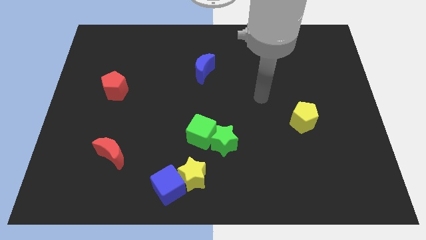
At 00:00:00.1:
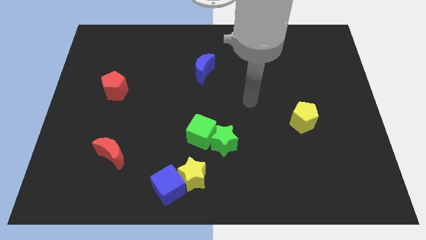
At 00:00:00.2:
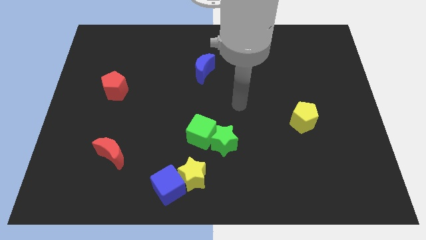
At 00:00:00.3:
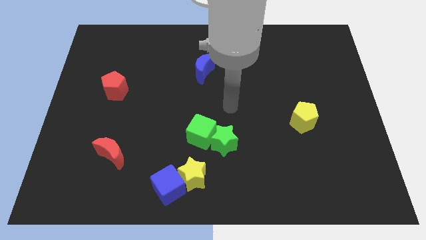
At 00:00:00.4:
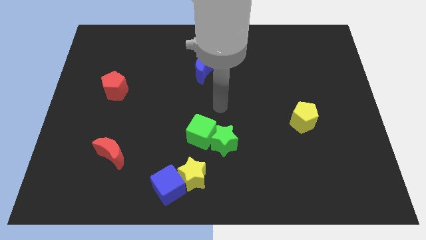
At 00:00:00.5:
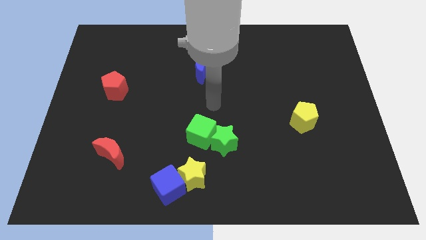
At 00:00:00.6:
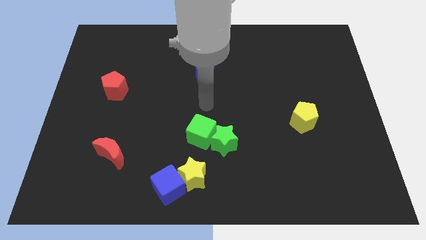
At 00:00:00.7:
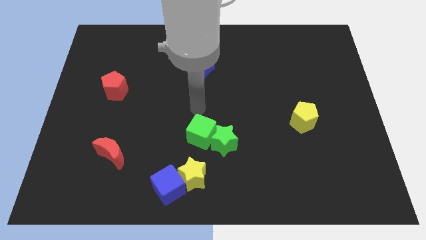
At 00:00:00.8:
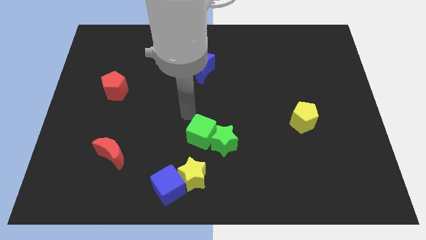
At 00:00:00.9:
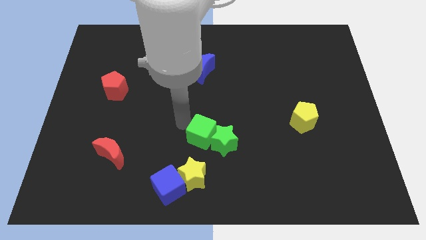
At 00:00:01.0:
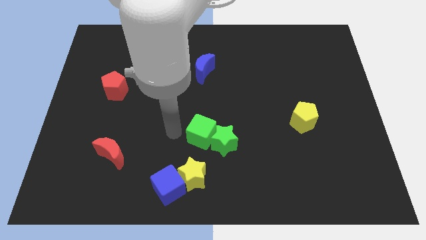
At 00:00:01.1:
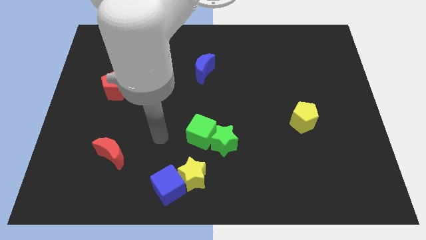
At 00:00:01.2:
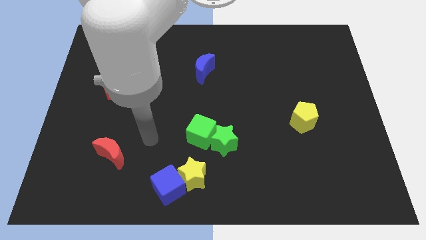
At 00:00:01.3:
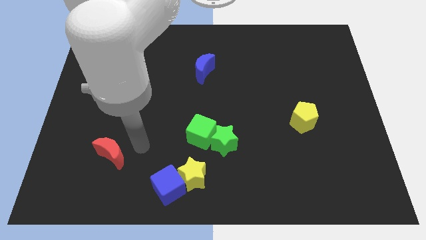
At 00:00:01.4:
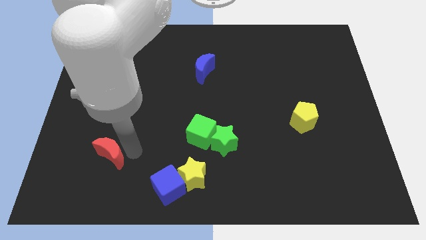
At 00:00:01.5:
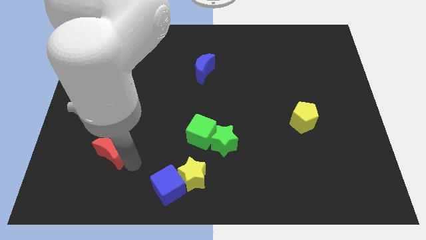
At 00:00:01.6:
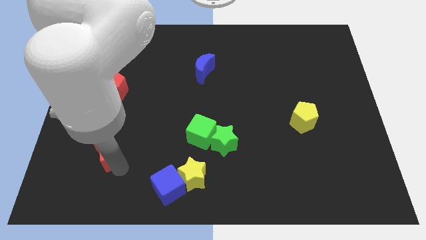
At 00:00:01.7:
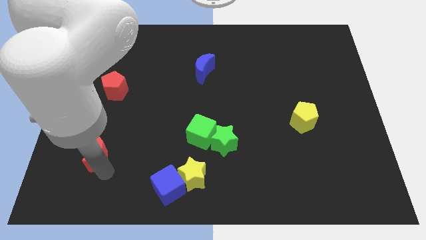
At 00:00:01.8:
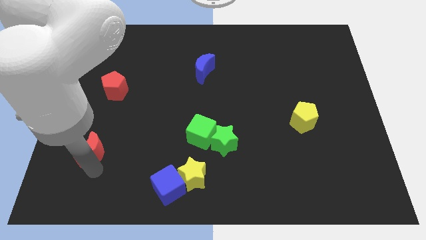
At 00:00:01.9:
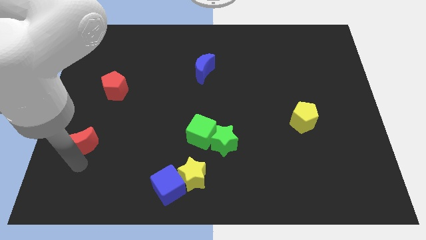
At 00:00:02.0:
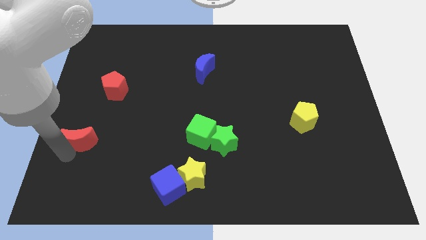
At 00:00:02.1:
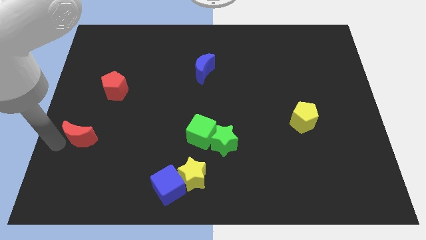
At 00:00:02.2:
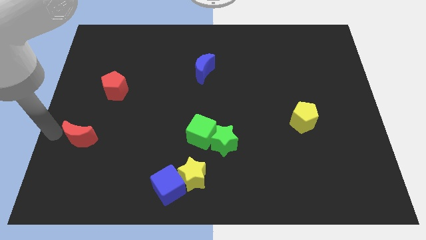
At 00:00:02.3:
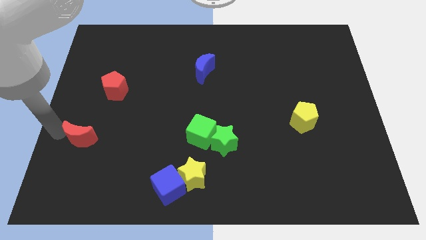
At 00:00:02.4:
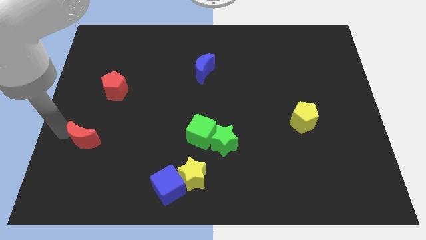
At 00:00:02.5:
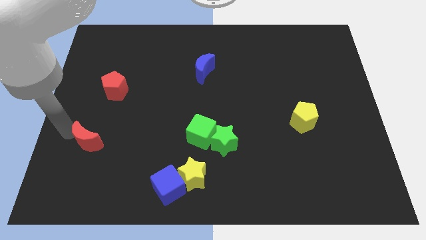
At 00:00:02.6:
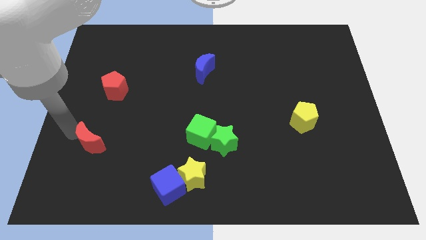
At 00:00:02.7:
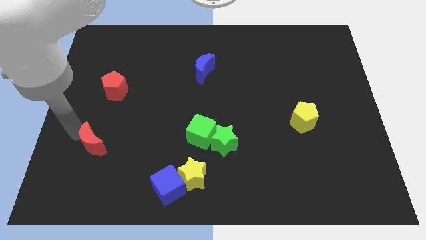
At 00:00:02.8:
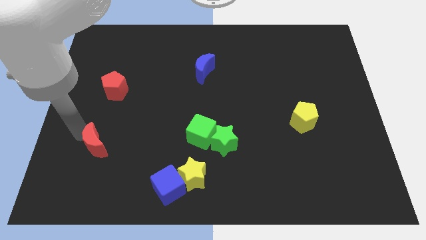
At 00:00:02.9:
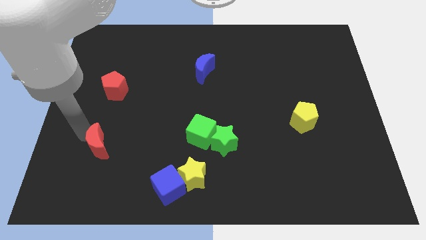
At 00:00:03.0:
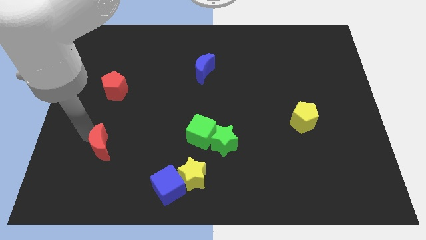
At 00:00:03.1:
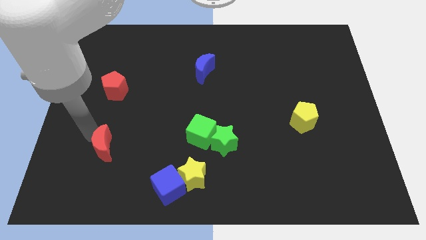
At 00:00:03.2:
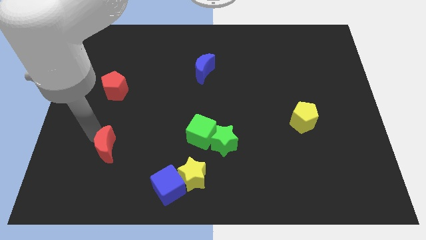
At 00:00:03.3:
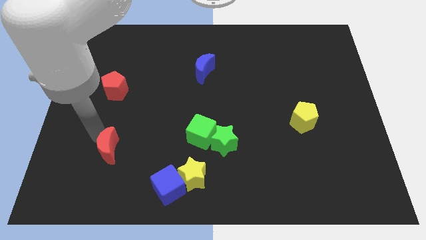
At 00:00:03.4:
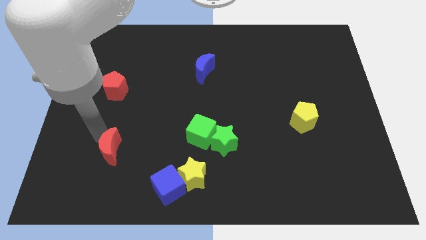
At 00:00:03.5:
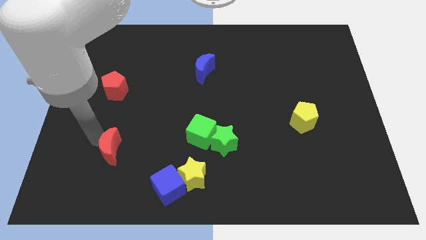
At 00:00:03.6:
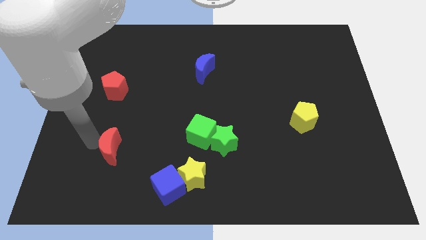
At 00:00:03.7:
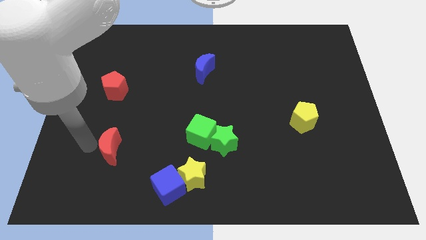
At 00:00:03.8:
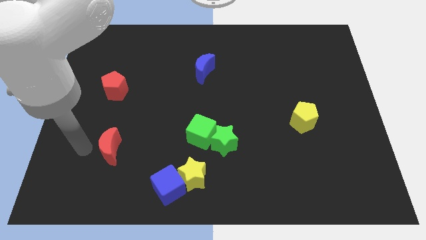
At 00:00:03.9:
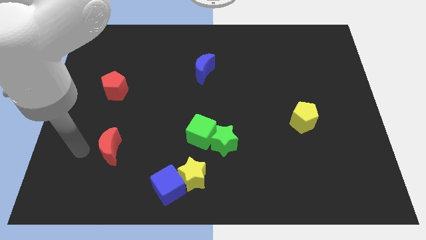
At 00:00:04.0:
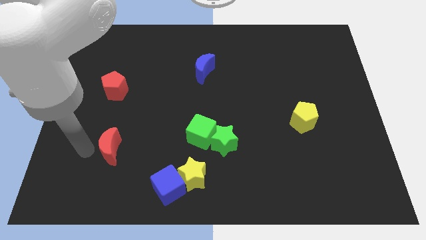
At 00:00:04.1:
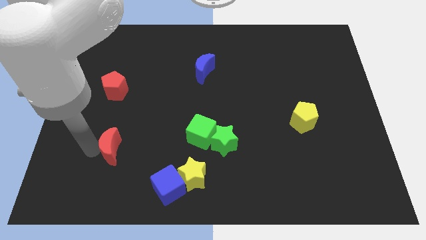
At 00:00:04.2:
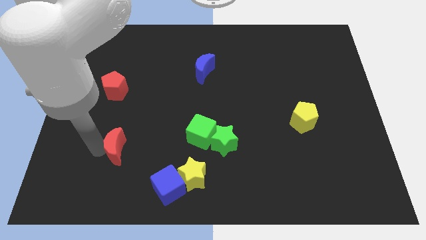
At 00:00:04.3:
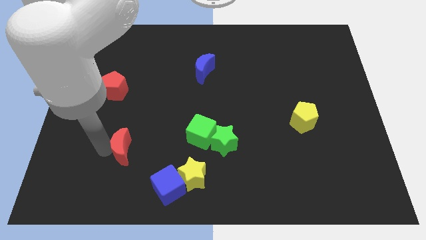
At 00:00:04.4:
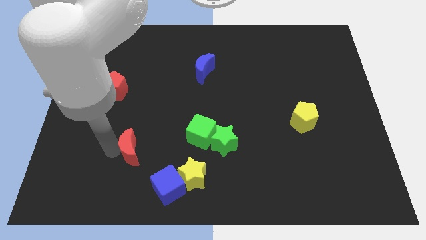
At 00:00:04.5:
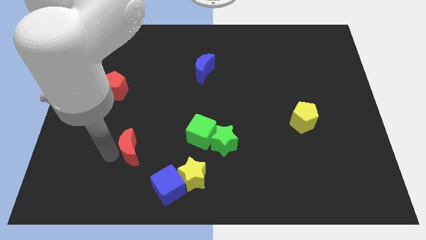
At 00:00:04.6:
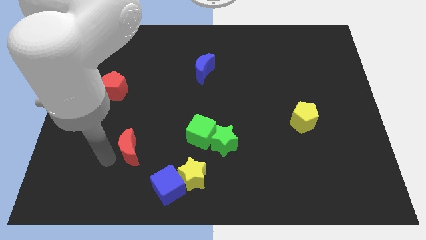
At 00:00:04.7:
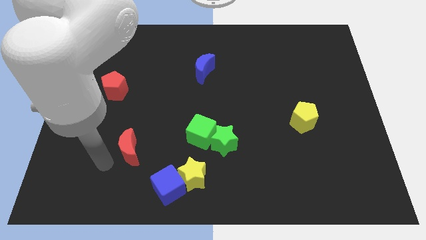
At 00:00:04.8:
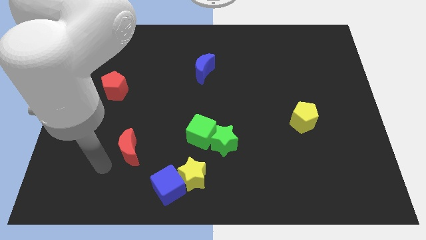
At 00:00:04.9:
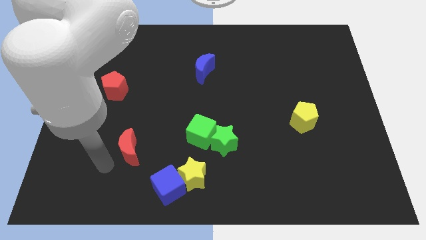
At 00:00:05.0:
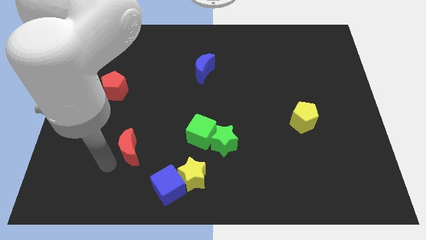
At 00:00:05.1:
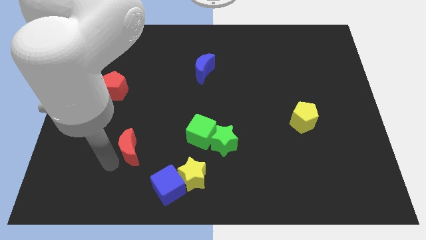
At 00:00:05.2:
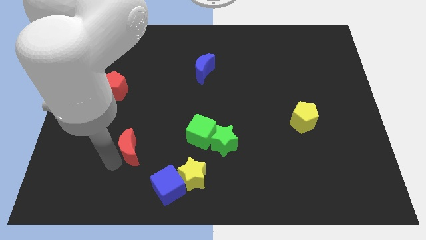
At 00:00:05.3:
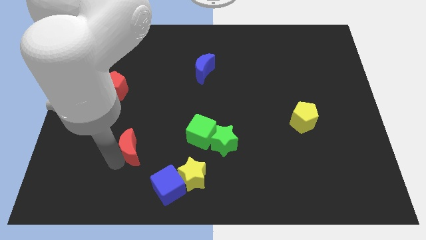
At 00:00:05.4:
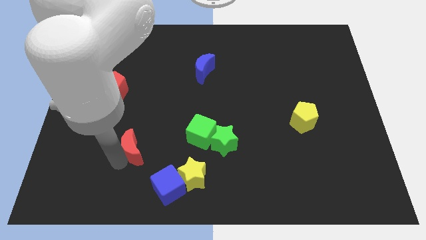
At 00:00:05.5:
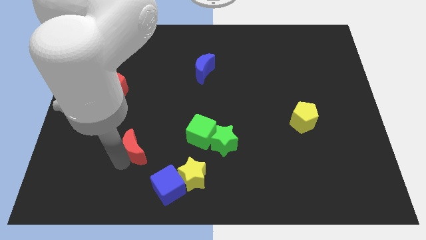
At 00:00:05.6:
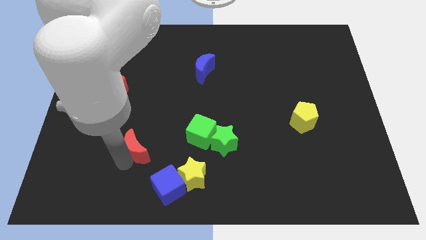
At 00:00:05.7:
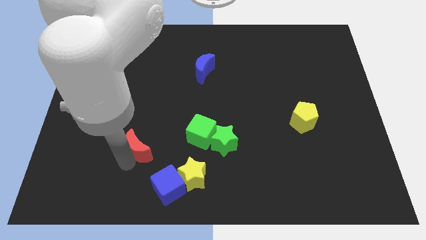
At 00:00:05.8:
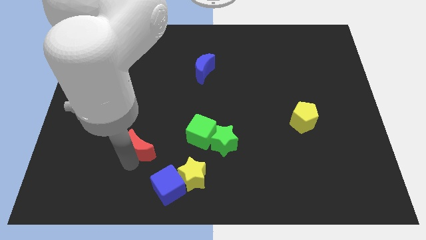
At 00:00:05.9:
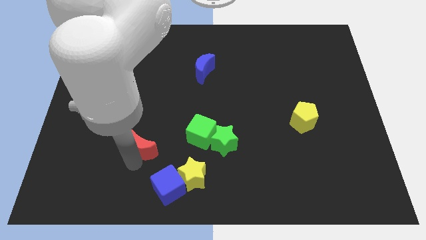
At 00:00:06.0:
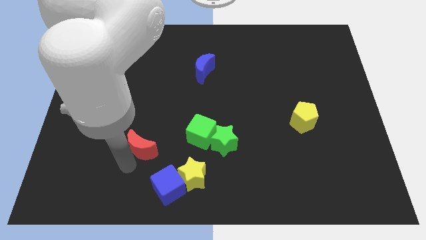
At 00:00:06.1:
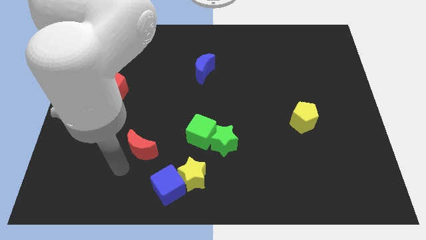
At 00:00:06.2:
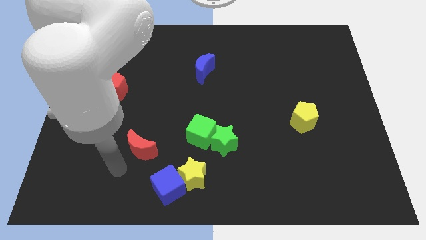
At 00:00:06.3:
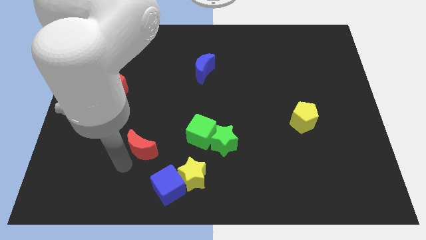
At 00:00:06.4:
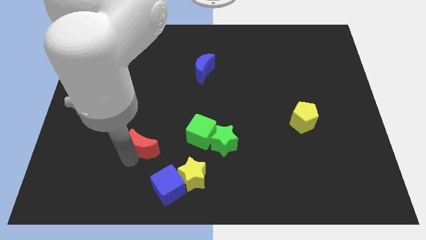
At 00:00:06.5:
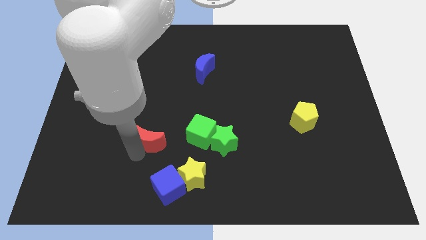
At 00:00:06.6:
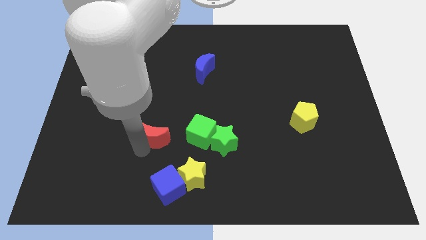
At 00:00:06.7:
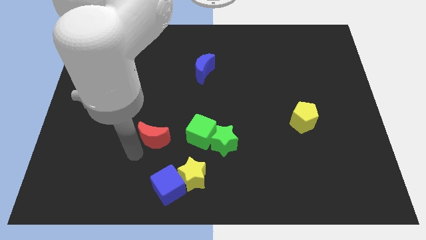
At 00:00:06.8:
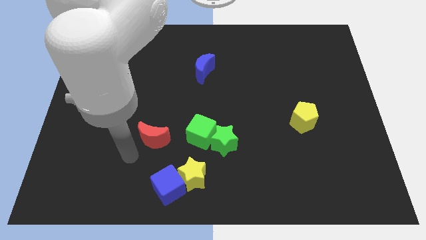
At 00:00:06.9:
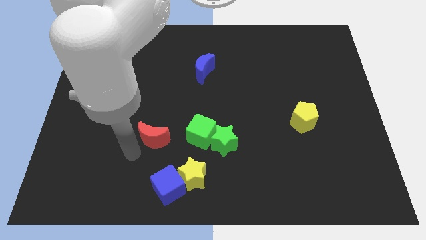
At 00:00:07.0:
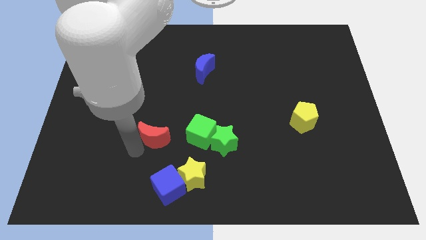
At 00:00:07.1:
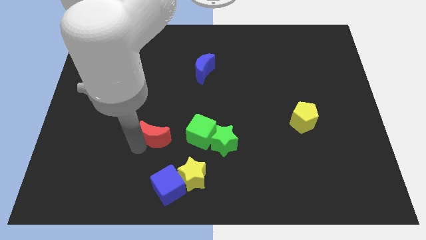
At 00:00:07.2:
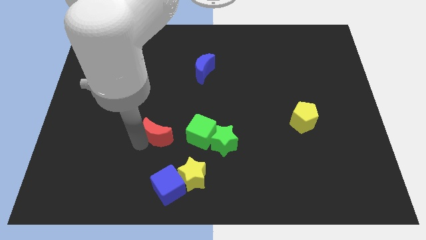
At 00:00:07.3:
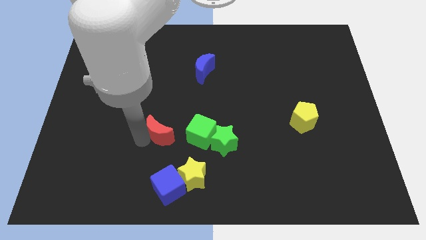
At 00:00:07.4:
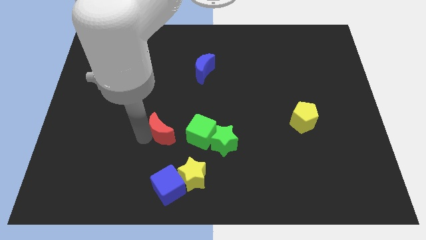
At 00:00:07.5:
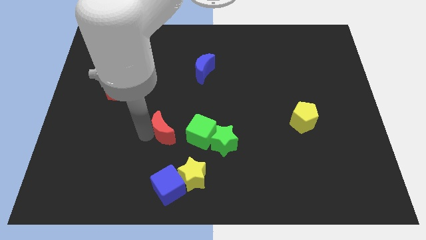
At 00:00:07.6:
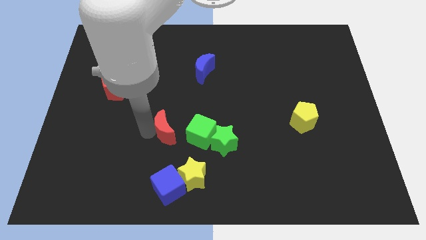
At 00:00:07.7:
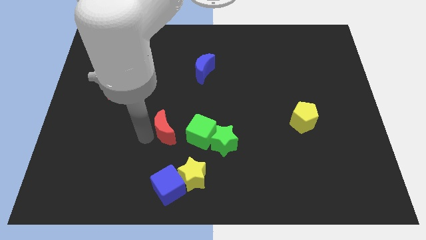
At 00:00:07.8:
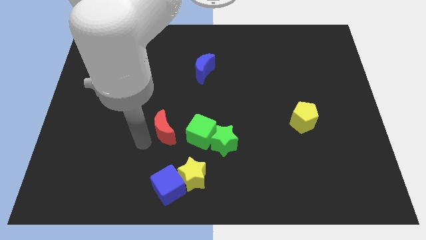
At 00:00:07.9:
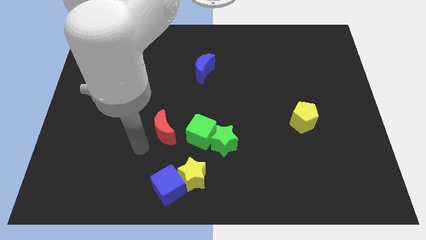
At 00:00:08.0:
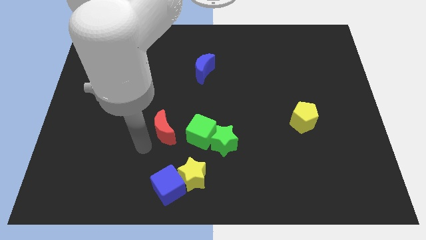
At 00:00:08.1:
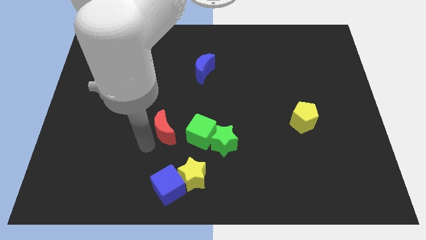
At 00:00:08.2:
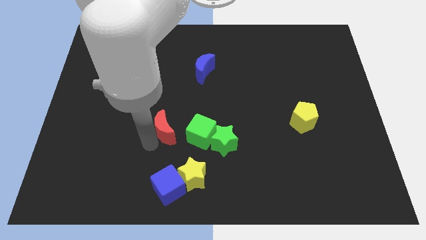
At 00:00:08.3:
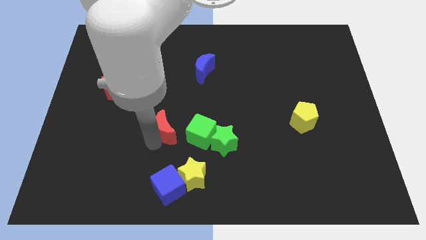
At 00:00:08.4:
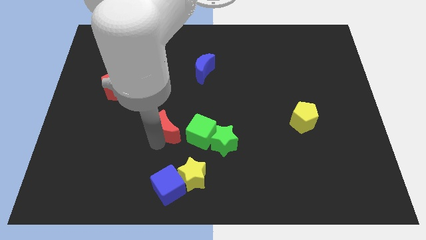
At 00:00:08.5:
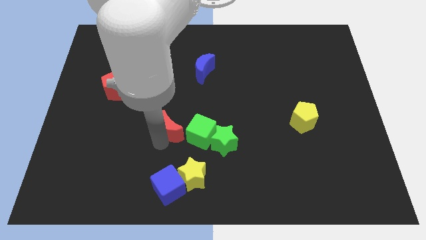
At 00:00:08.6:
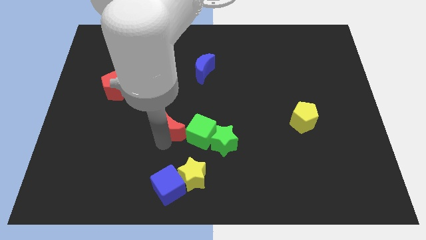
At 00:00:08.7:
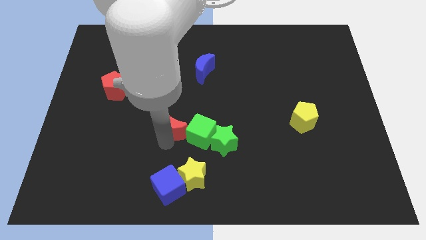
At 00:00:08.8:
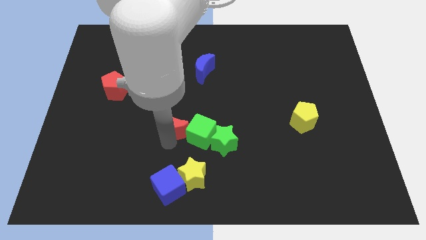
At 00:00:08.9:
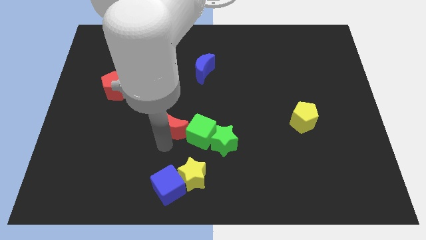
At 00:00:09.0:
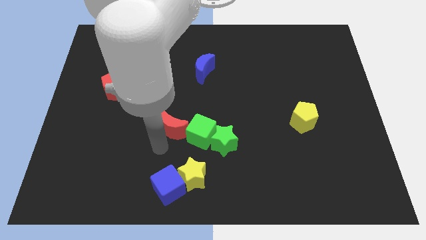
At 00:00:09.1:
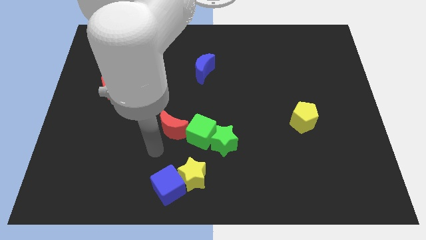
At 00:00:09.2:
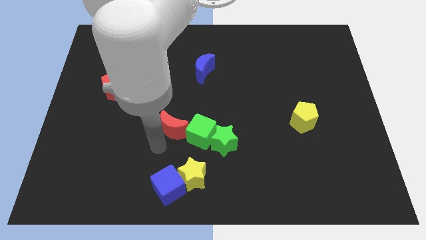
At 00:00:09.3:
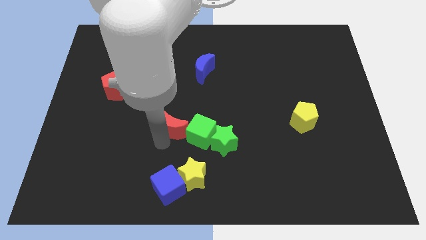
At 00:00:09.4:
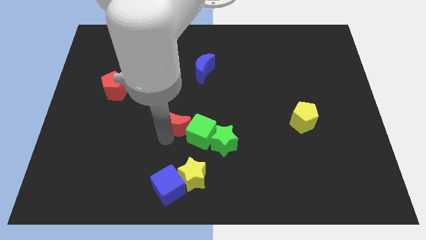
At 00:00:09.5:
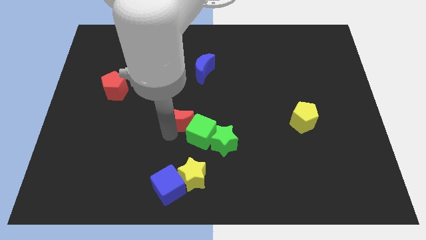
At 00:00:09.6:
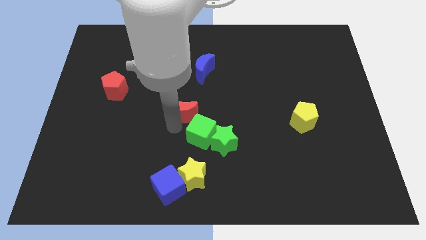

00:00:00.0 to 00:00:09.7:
put the red moon below the blue moon
